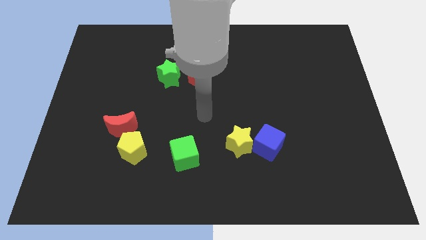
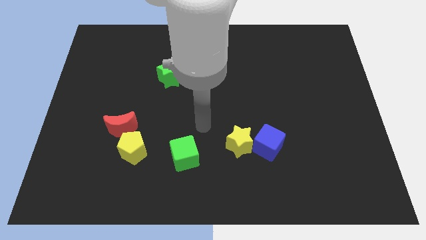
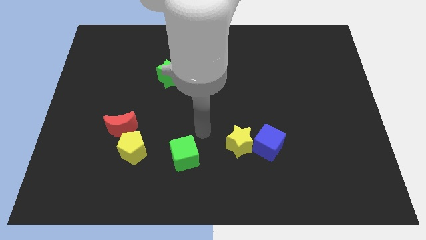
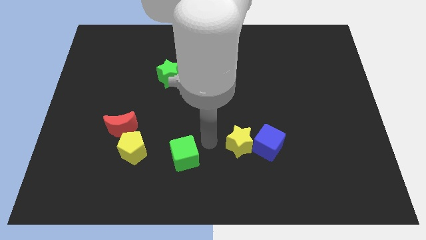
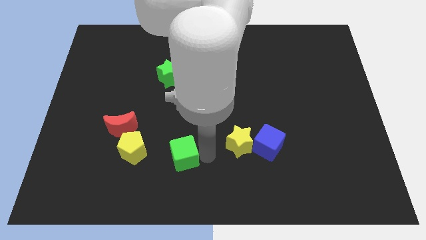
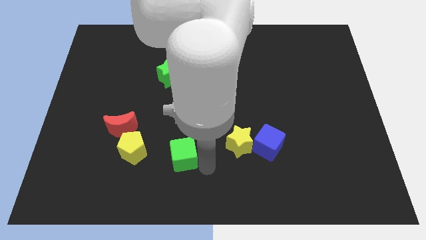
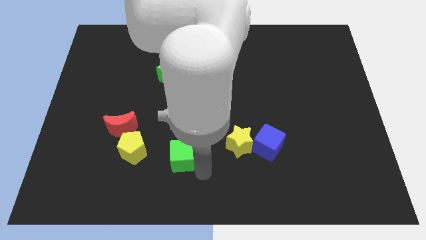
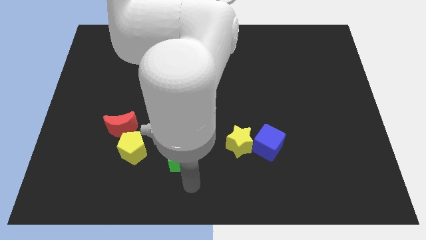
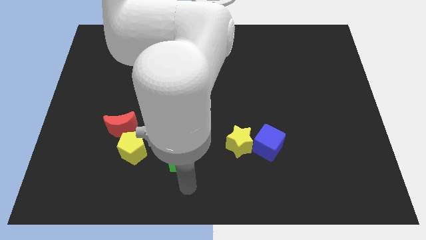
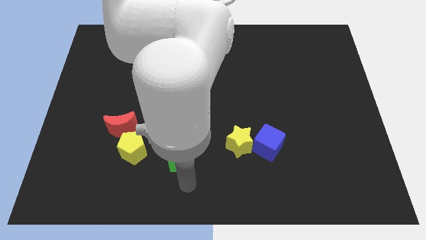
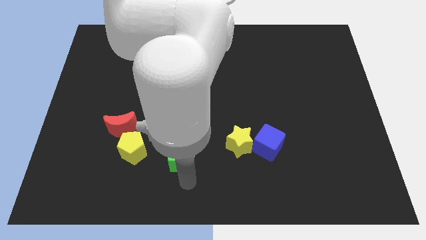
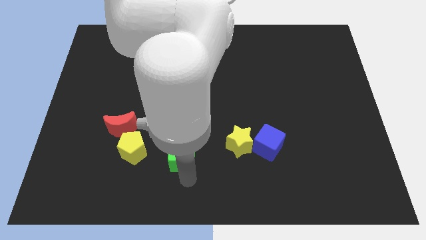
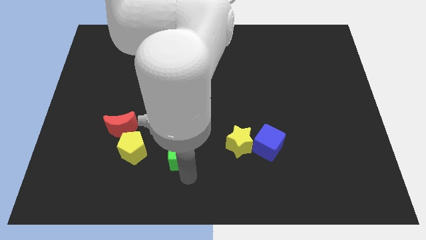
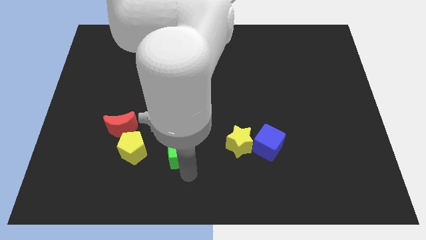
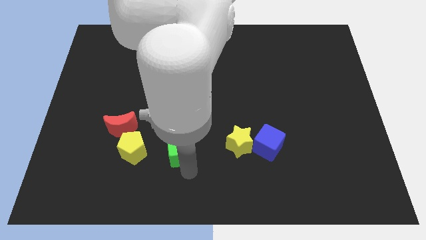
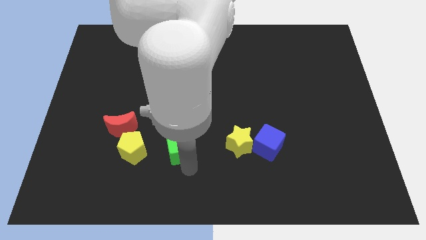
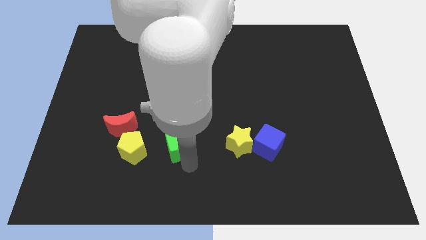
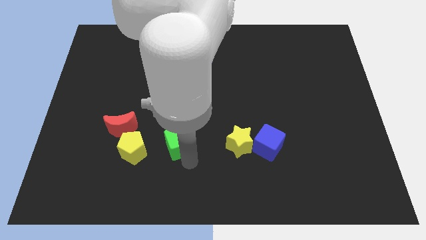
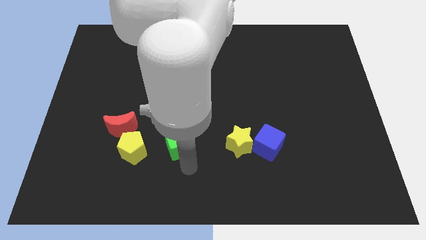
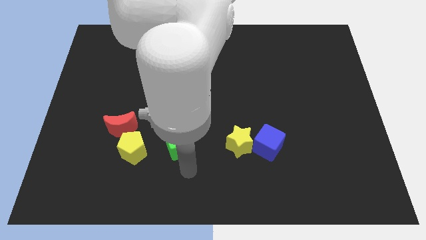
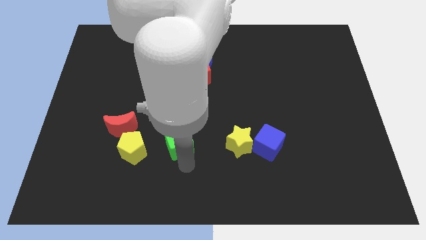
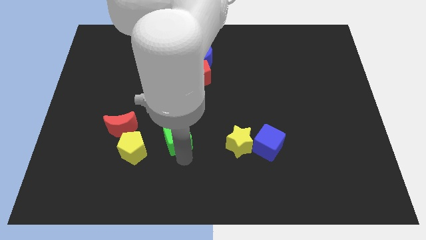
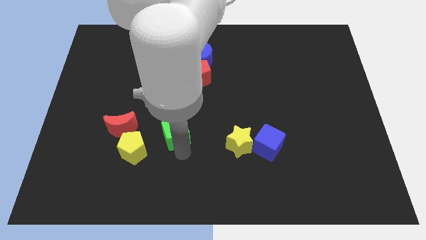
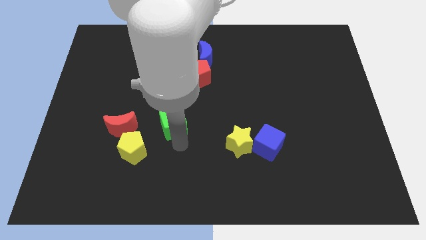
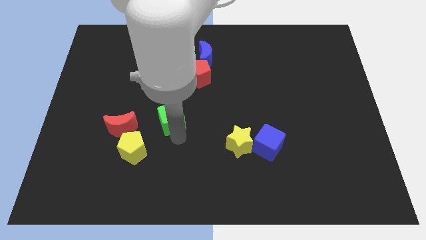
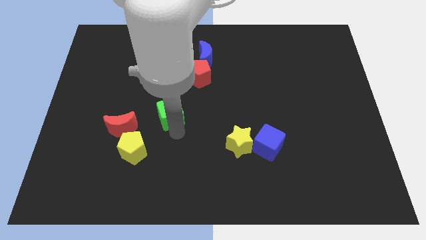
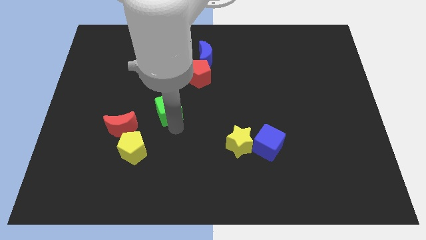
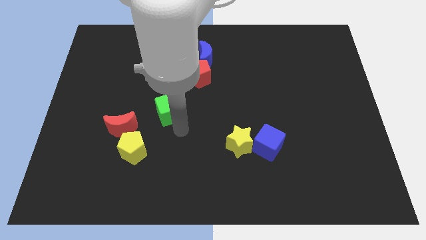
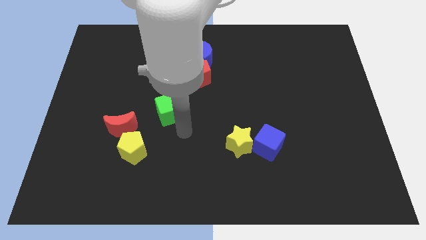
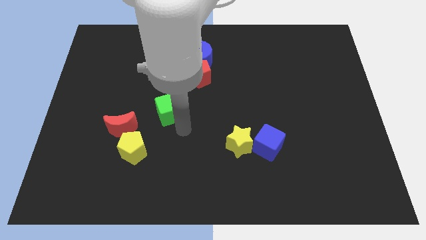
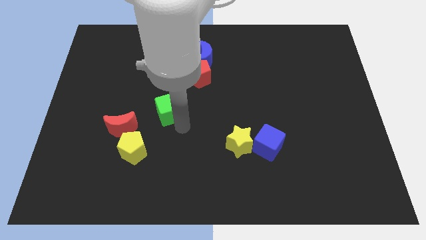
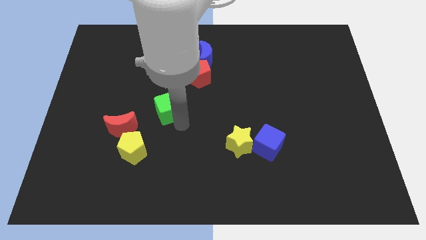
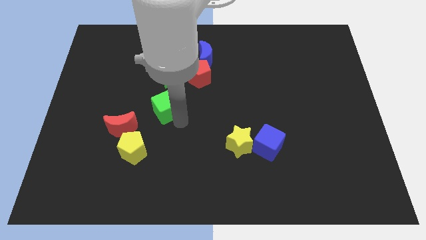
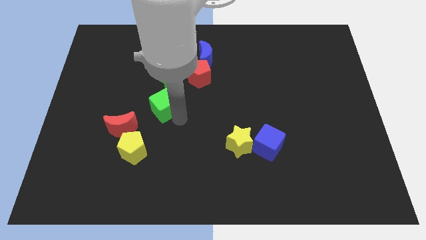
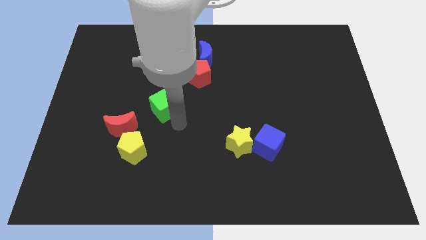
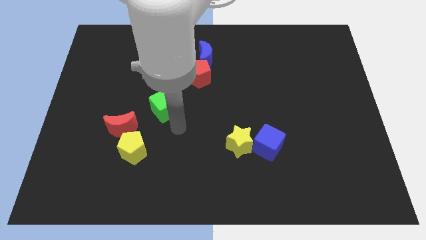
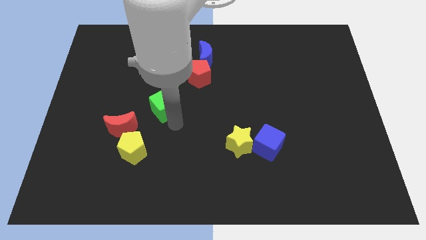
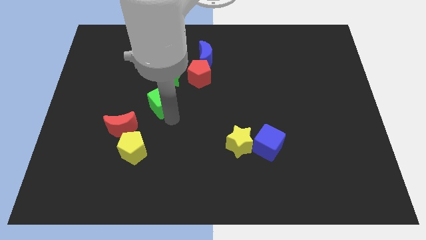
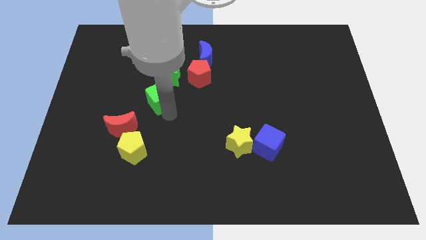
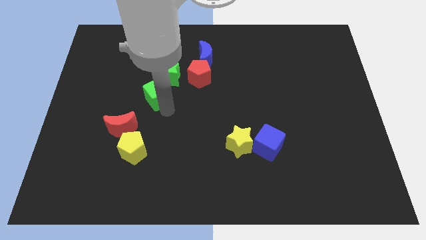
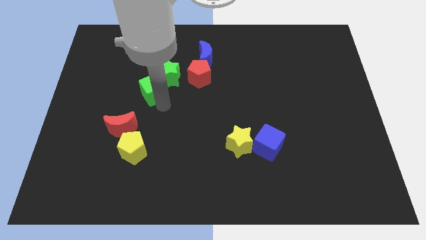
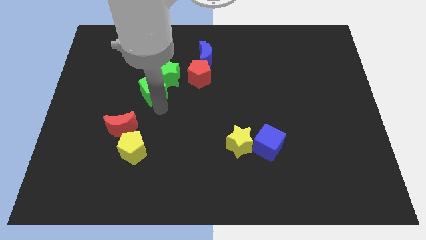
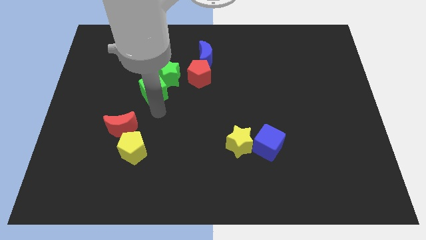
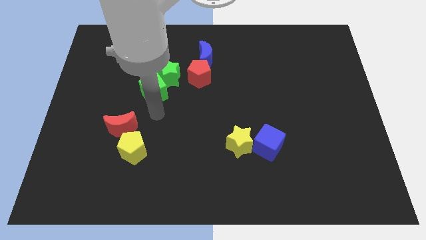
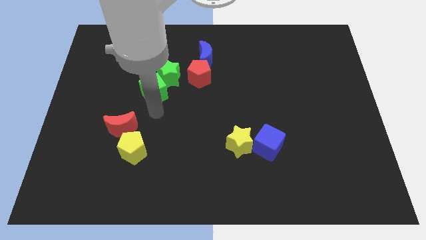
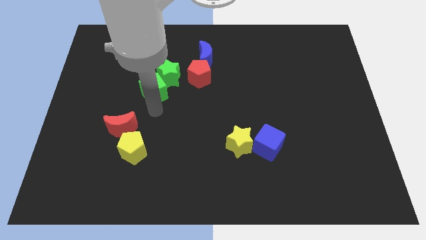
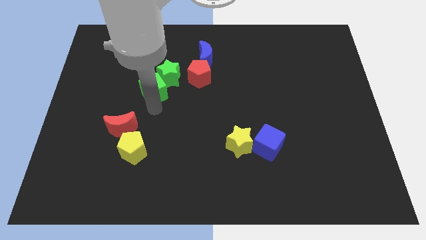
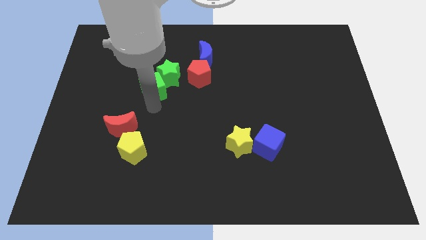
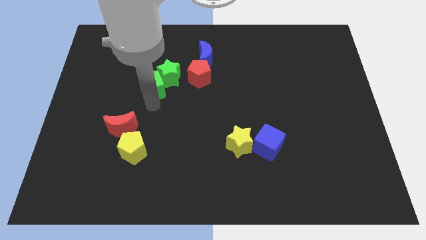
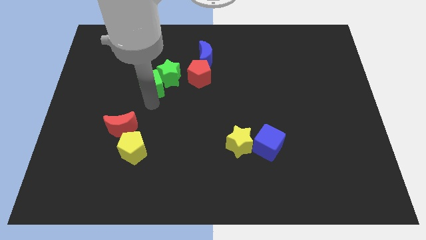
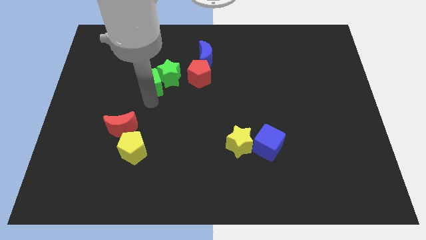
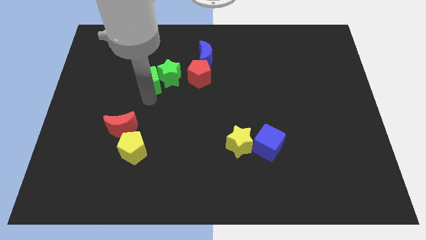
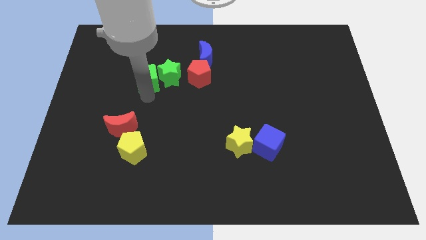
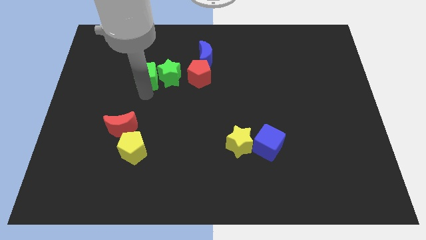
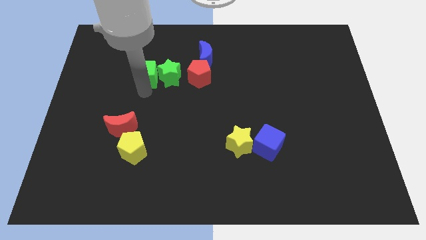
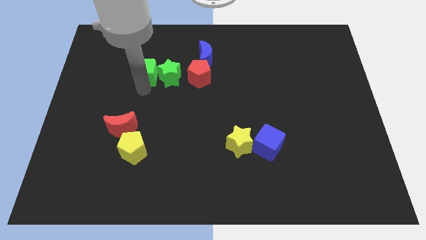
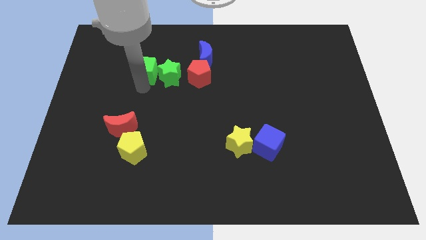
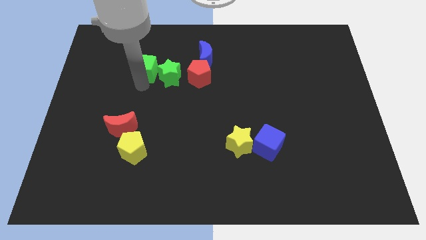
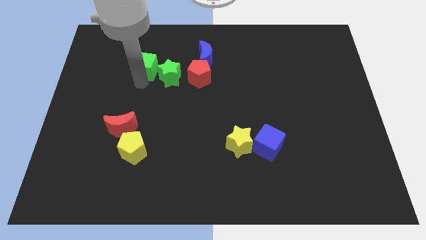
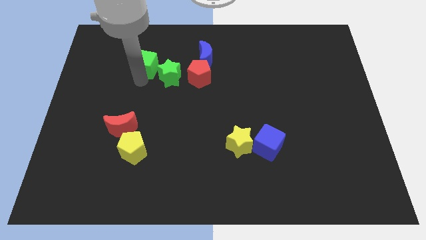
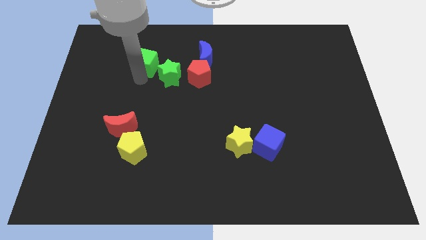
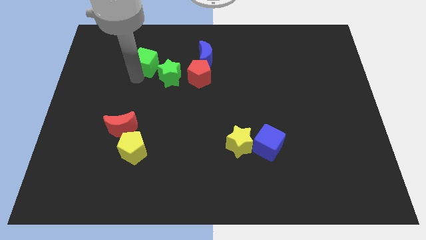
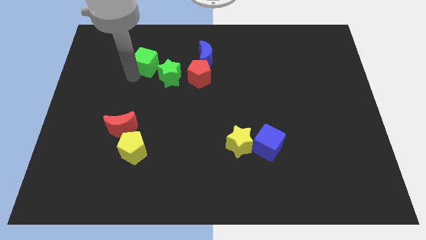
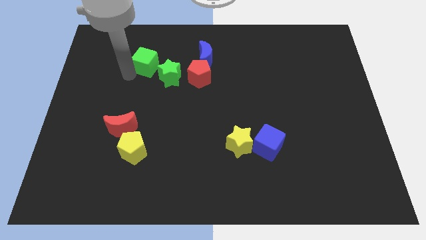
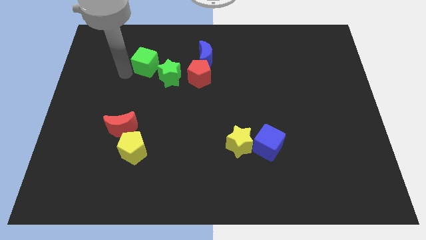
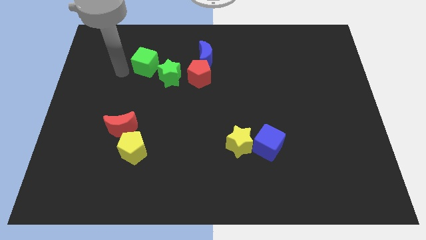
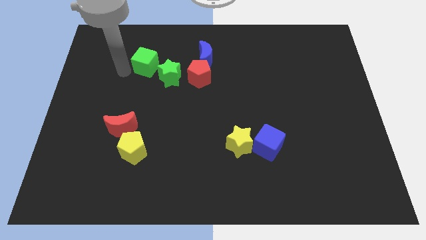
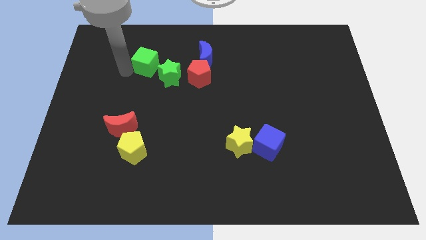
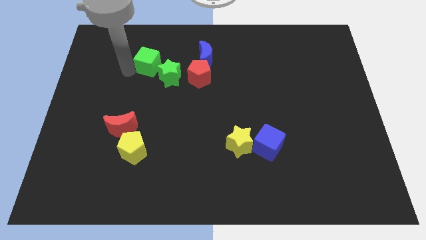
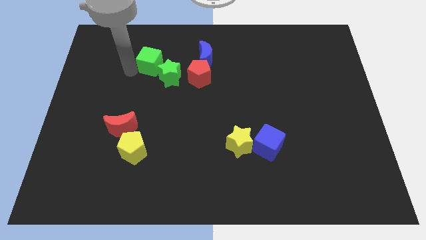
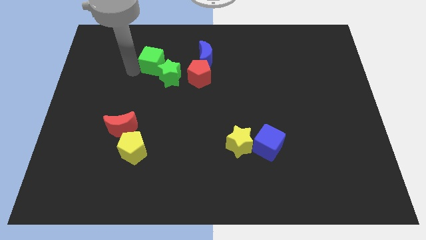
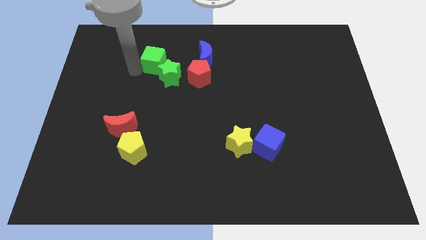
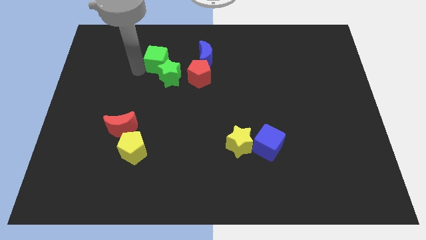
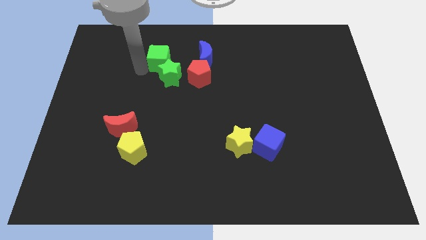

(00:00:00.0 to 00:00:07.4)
slide the green cube to the top left of the red pentagon
